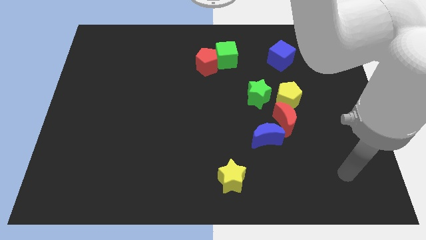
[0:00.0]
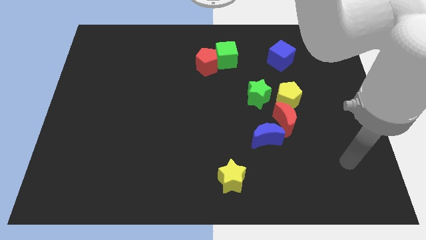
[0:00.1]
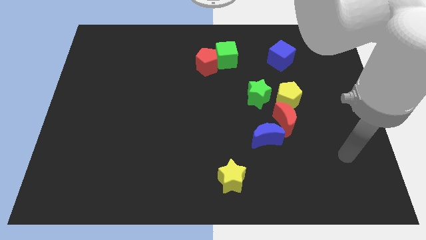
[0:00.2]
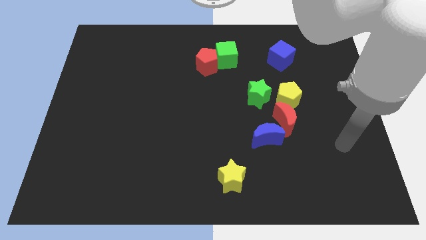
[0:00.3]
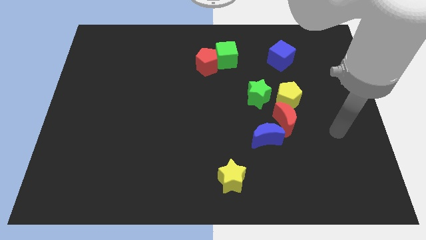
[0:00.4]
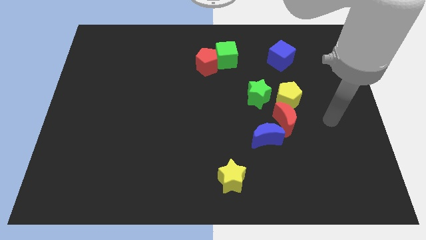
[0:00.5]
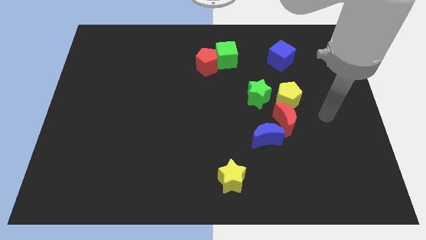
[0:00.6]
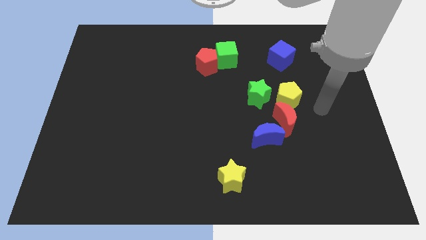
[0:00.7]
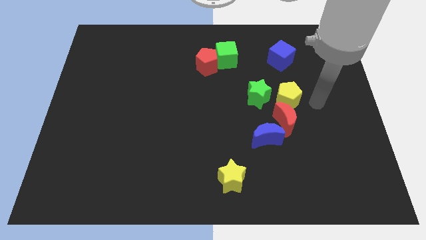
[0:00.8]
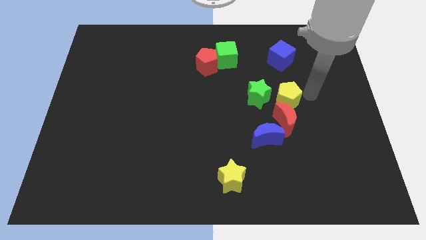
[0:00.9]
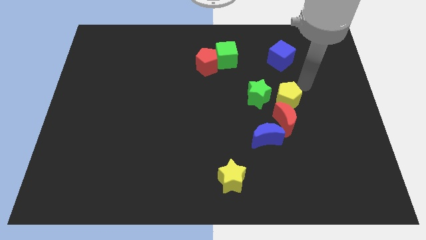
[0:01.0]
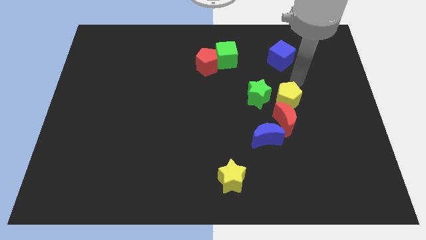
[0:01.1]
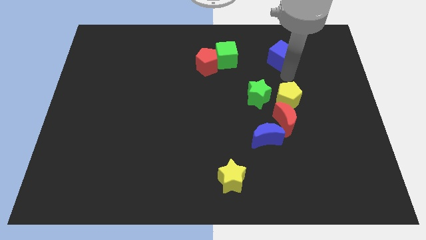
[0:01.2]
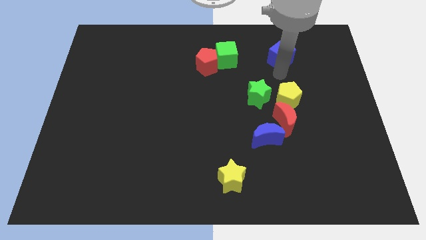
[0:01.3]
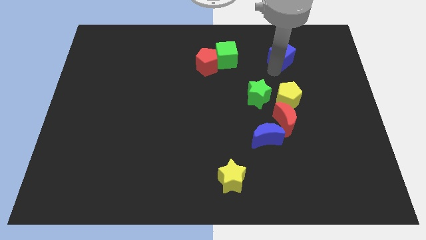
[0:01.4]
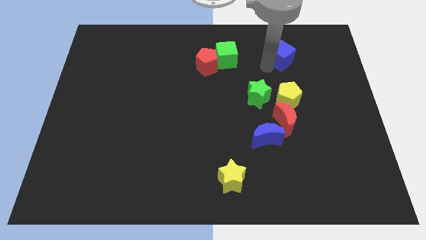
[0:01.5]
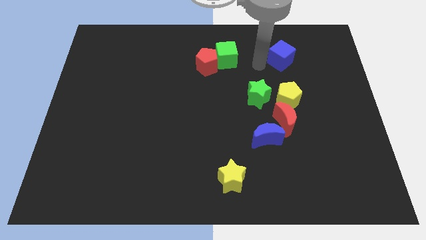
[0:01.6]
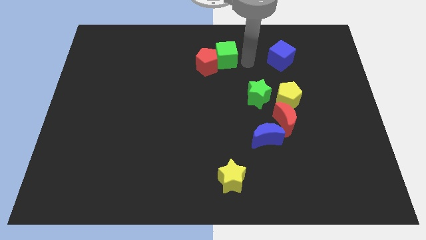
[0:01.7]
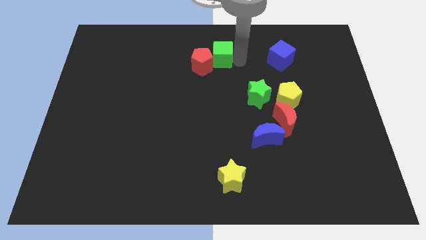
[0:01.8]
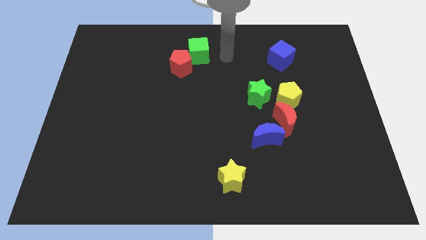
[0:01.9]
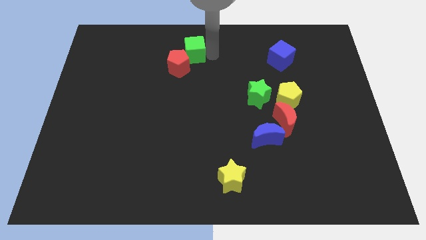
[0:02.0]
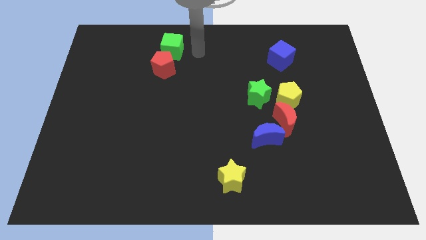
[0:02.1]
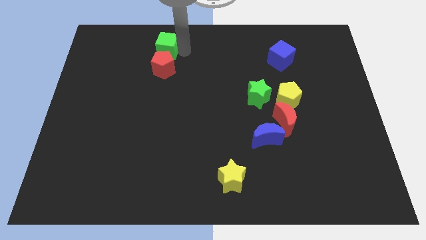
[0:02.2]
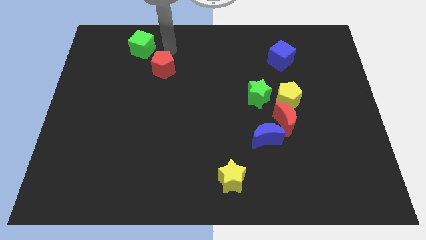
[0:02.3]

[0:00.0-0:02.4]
move the red pentagon away from the green cube

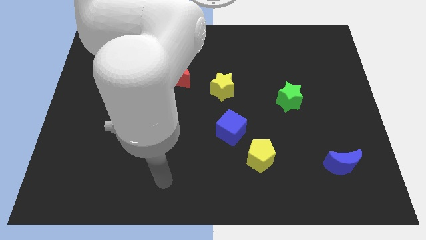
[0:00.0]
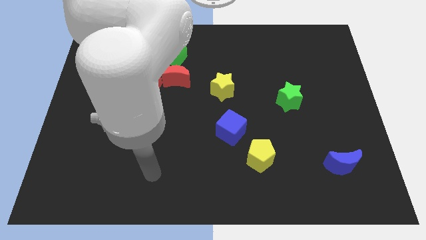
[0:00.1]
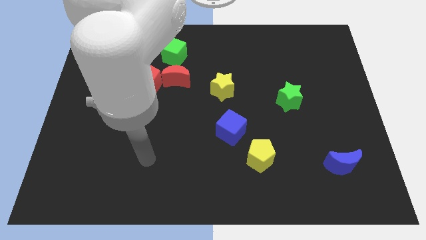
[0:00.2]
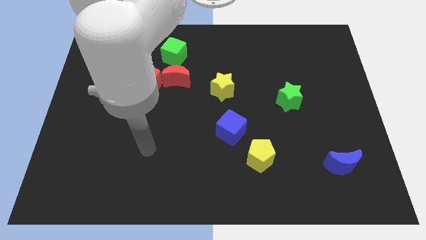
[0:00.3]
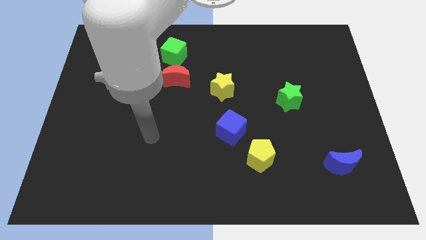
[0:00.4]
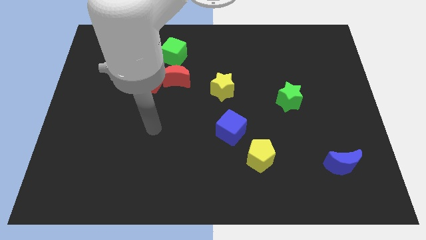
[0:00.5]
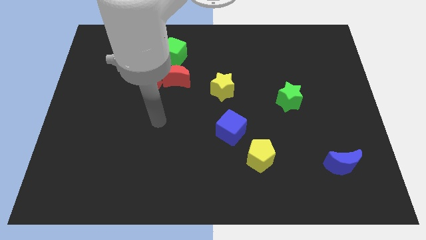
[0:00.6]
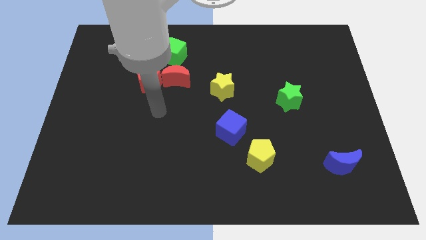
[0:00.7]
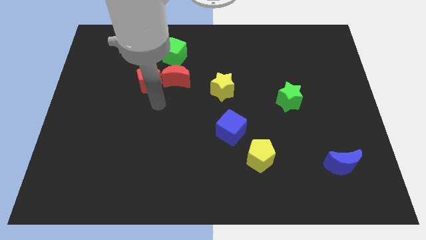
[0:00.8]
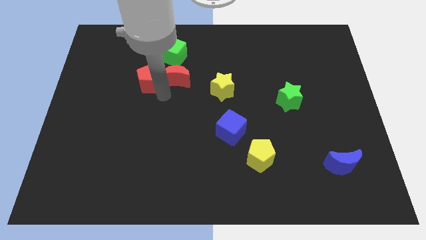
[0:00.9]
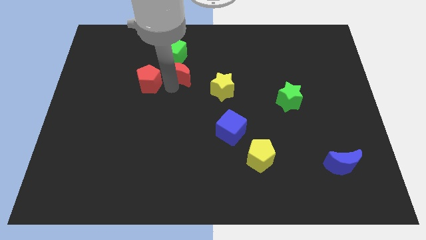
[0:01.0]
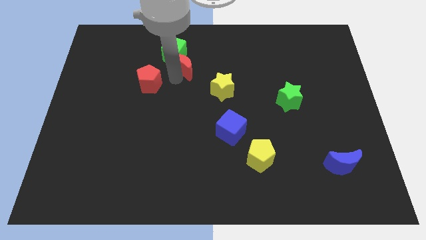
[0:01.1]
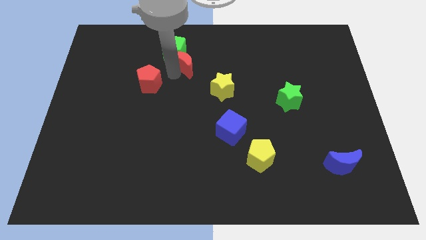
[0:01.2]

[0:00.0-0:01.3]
separate the red pentagon from the red moon

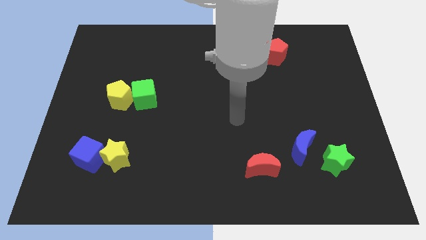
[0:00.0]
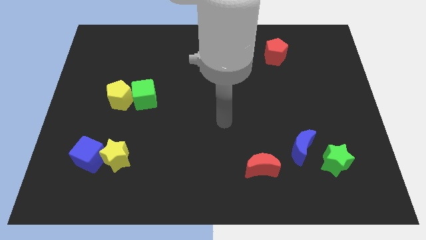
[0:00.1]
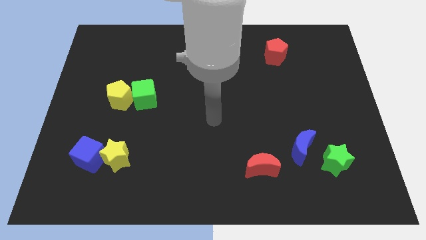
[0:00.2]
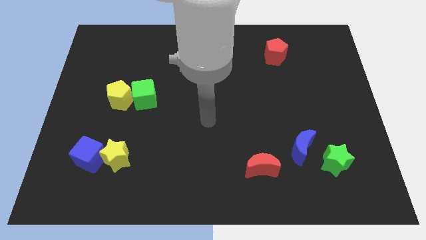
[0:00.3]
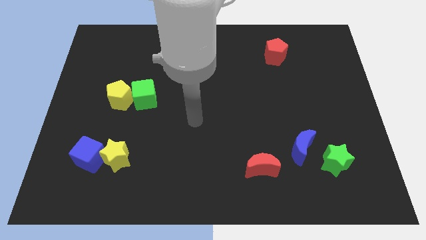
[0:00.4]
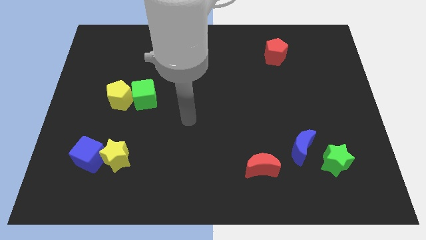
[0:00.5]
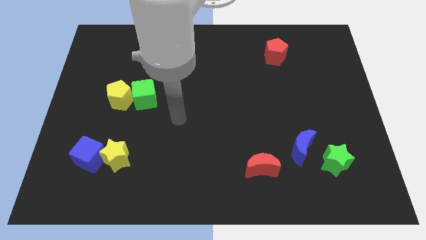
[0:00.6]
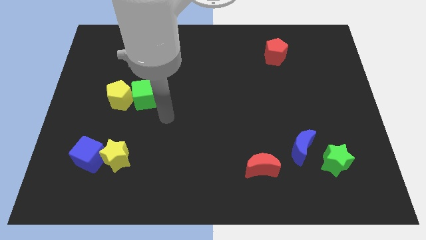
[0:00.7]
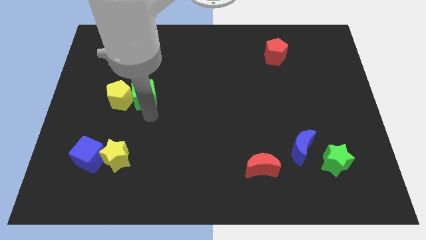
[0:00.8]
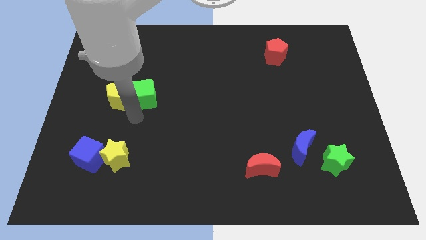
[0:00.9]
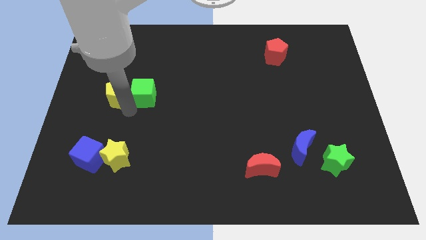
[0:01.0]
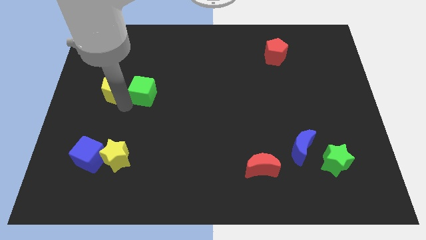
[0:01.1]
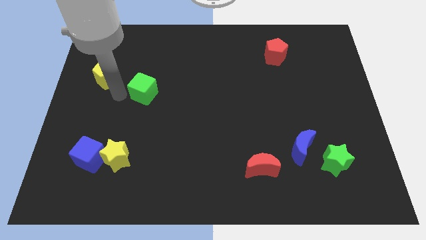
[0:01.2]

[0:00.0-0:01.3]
move the green cube away from the yellow pentagon

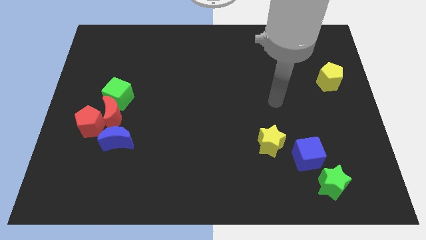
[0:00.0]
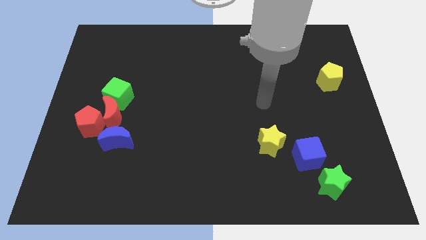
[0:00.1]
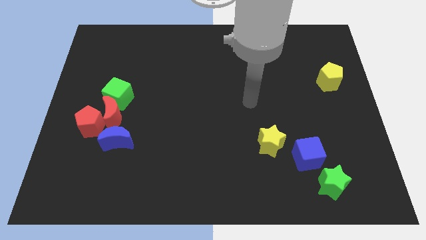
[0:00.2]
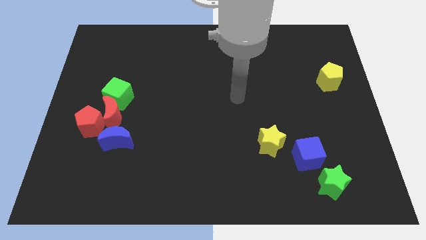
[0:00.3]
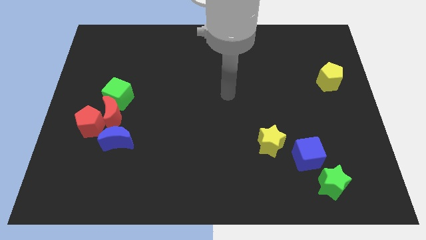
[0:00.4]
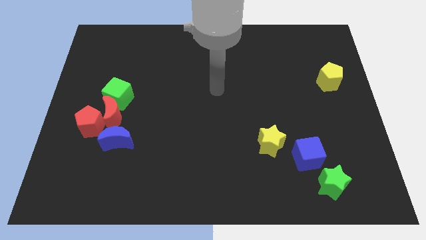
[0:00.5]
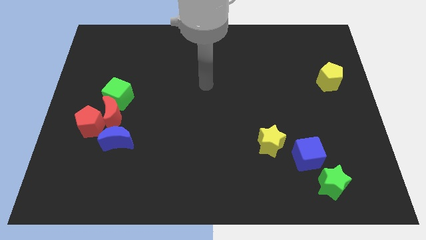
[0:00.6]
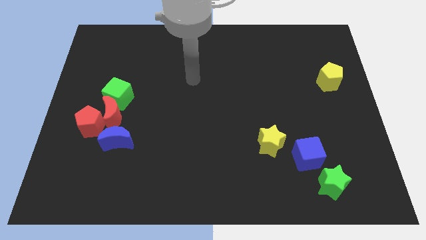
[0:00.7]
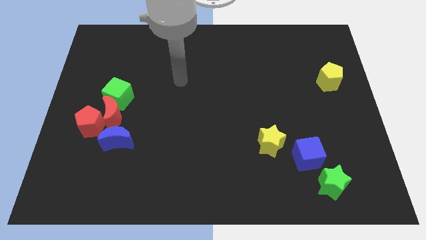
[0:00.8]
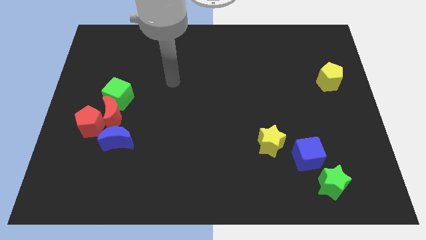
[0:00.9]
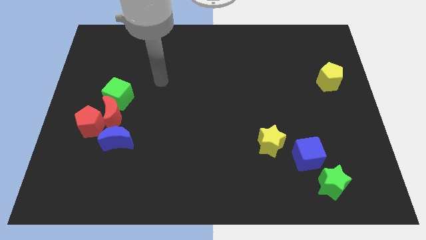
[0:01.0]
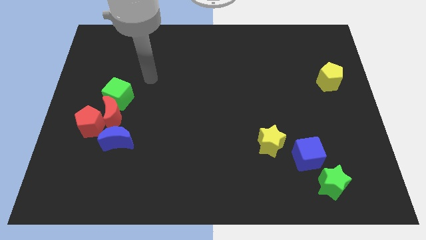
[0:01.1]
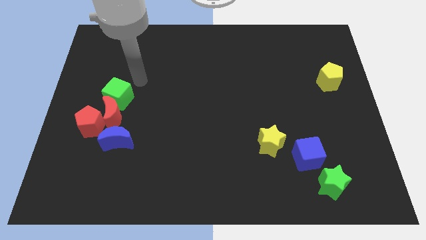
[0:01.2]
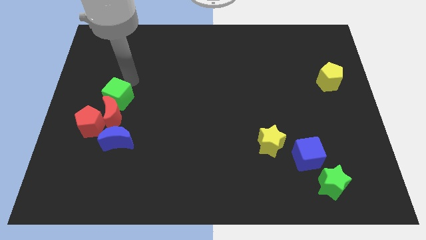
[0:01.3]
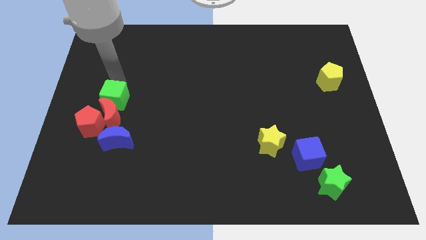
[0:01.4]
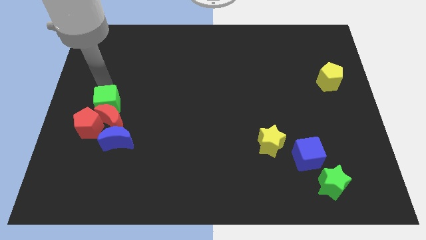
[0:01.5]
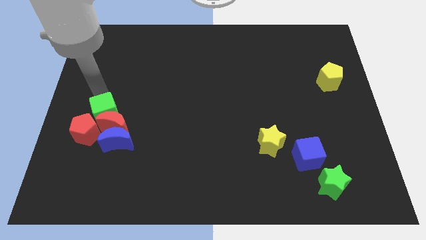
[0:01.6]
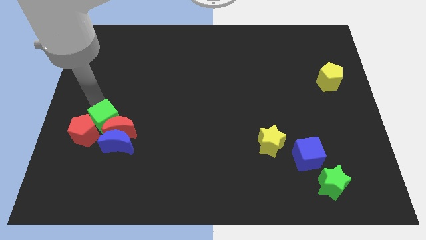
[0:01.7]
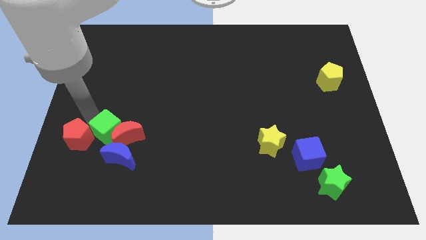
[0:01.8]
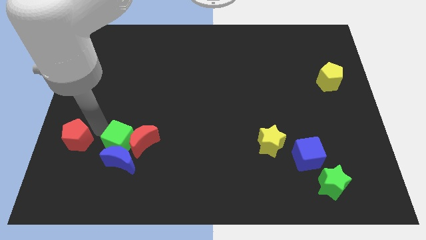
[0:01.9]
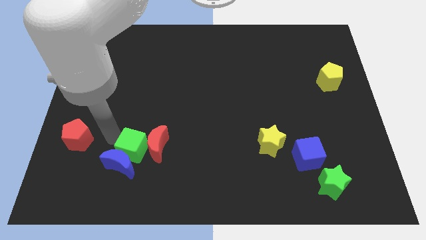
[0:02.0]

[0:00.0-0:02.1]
pull the red moon apart from the group of blocks

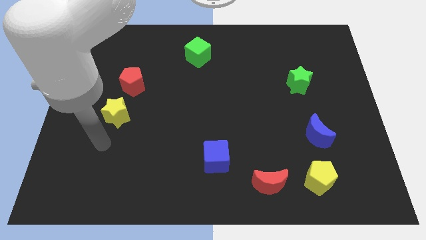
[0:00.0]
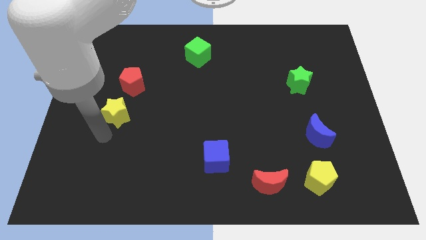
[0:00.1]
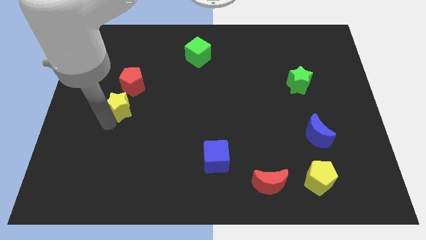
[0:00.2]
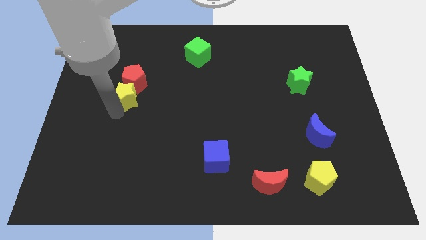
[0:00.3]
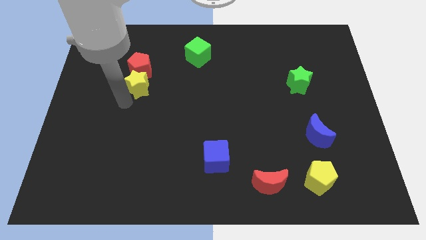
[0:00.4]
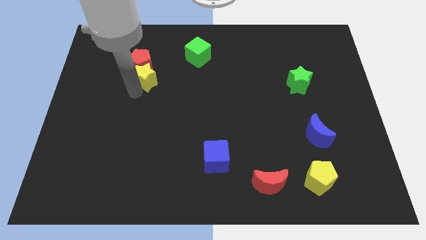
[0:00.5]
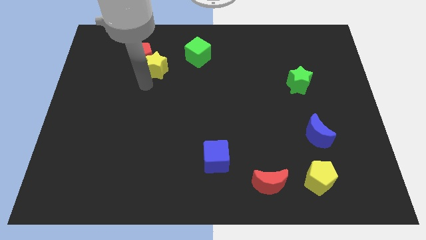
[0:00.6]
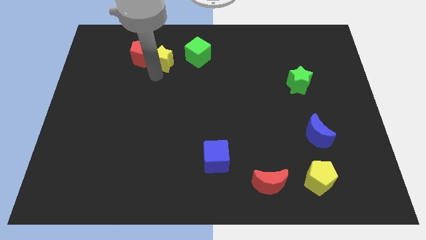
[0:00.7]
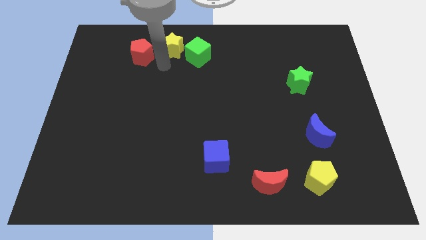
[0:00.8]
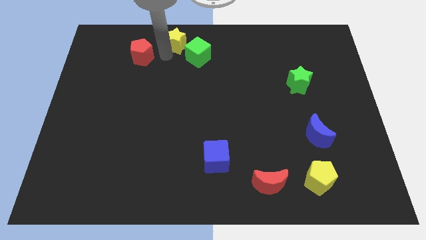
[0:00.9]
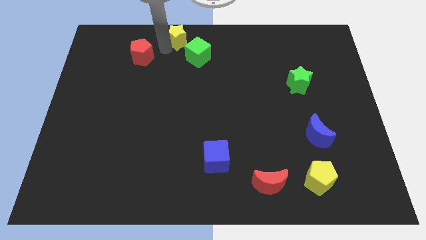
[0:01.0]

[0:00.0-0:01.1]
pull the red pentagon apart from the yellow star

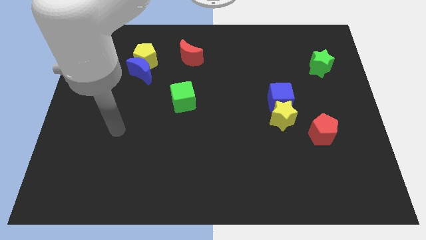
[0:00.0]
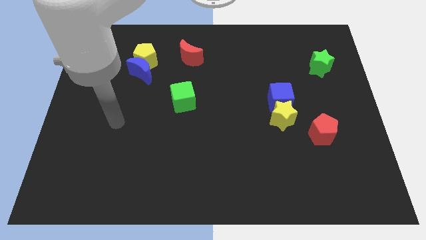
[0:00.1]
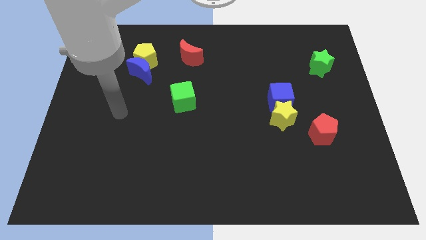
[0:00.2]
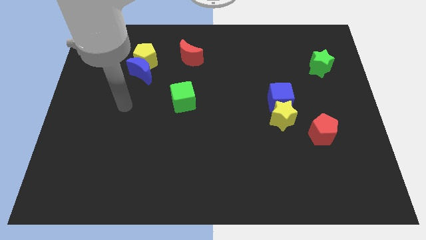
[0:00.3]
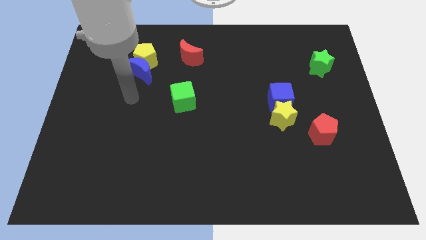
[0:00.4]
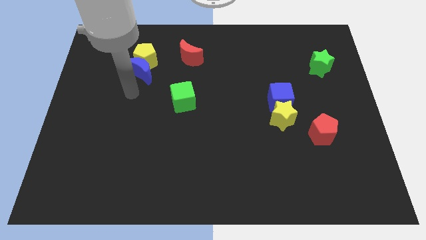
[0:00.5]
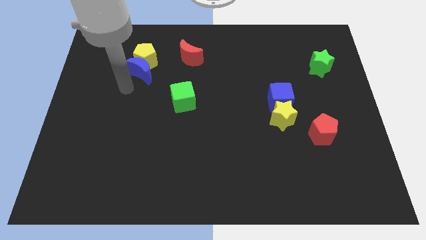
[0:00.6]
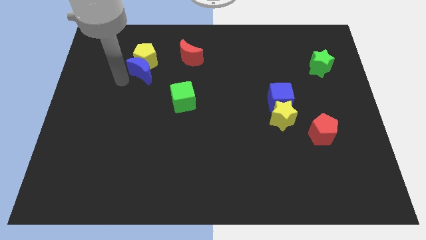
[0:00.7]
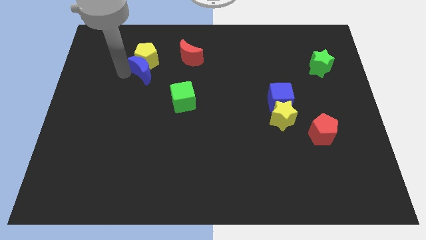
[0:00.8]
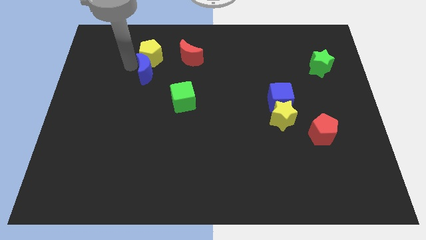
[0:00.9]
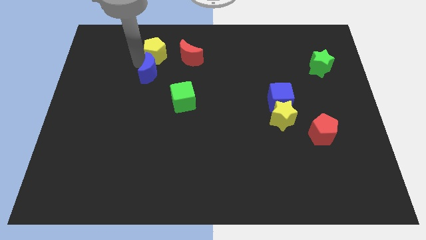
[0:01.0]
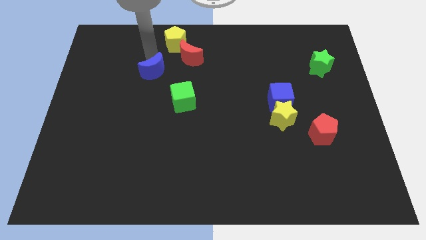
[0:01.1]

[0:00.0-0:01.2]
move the blue moon away from the yellow pentagon
